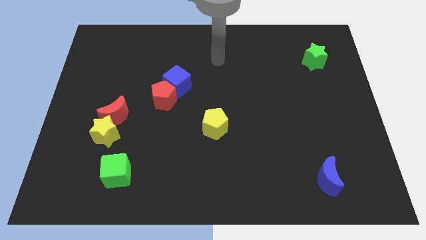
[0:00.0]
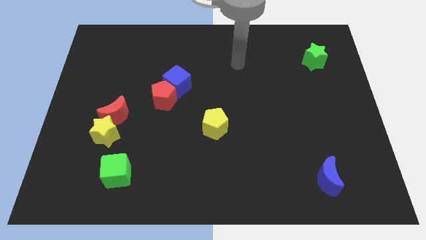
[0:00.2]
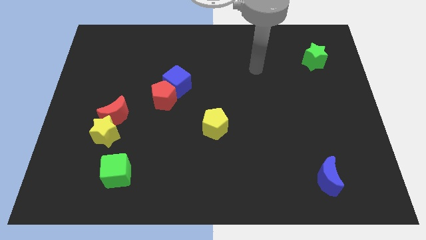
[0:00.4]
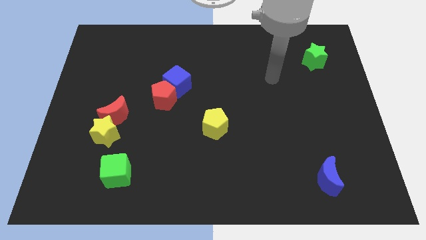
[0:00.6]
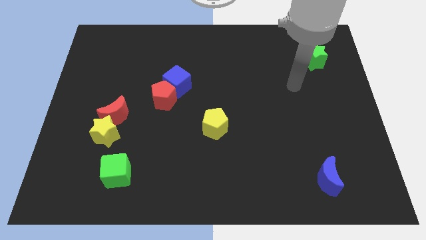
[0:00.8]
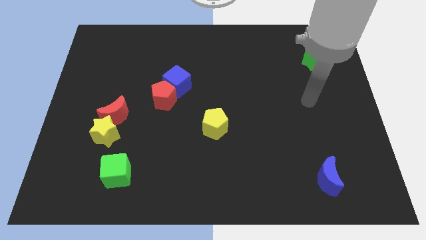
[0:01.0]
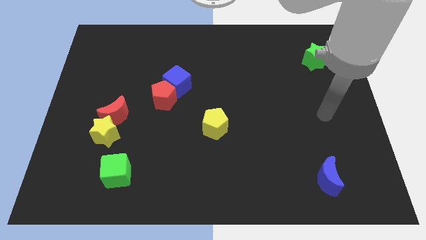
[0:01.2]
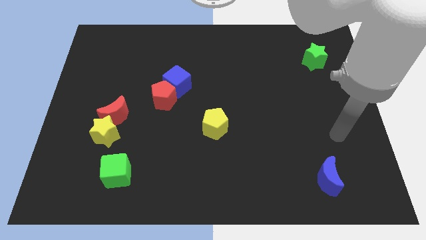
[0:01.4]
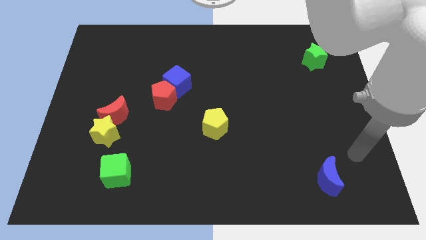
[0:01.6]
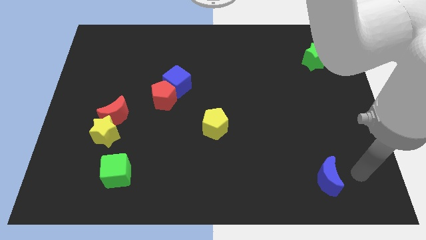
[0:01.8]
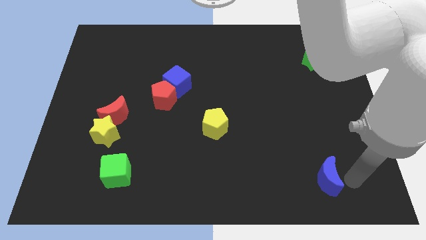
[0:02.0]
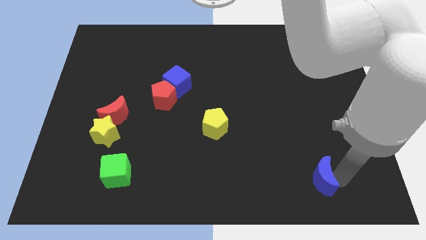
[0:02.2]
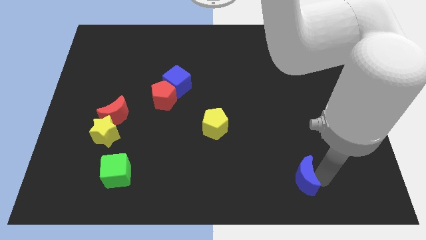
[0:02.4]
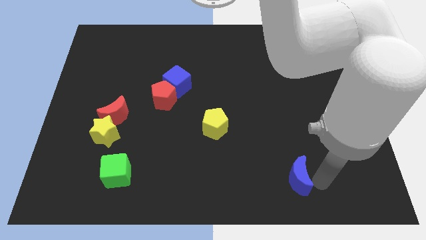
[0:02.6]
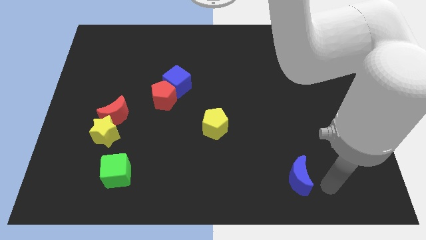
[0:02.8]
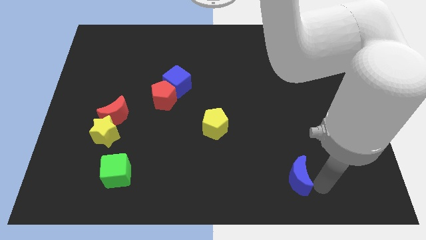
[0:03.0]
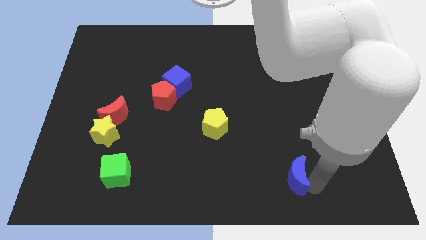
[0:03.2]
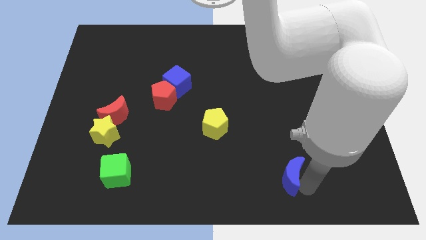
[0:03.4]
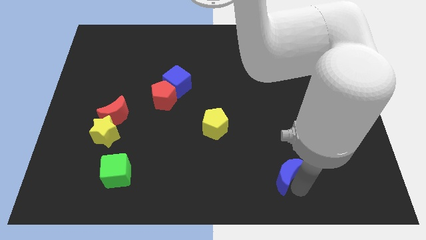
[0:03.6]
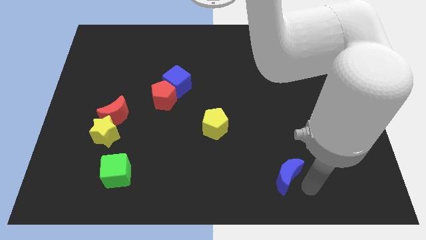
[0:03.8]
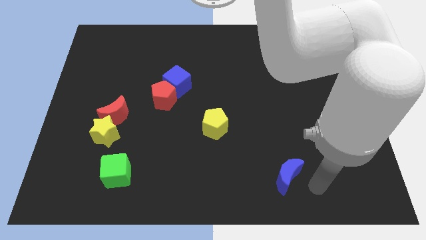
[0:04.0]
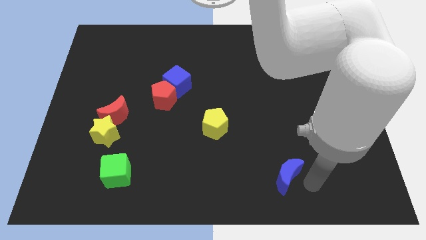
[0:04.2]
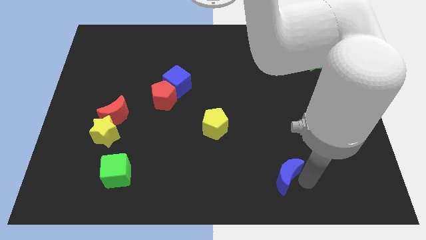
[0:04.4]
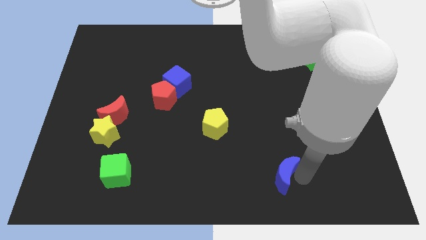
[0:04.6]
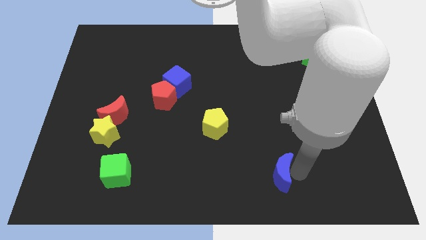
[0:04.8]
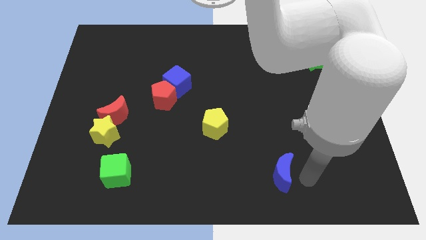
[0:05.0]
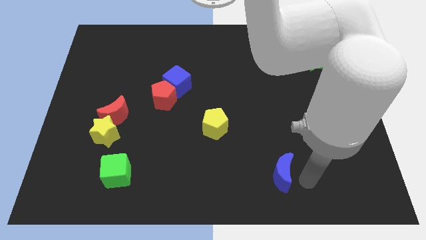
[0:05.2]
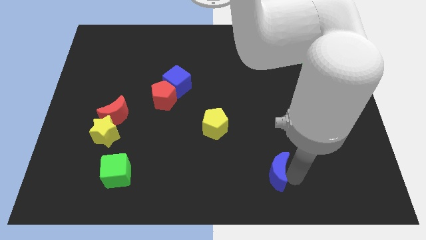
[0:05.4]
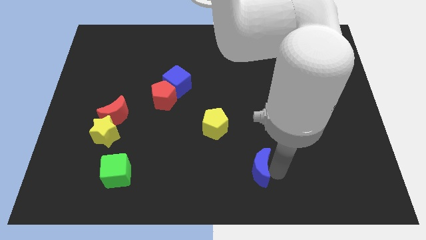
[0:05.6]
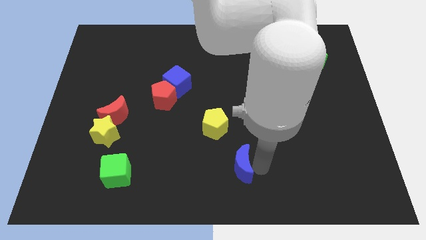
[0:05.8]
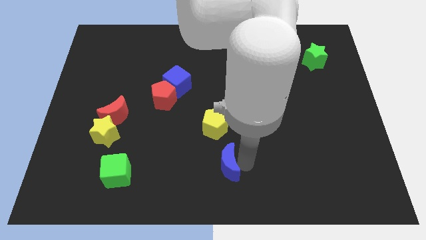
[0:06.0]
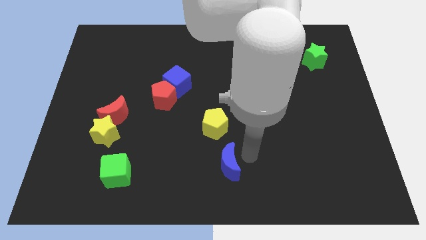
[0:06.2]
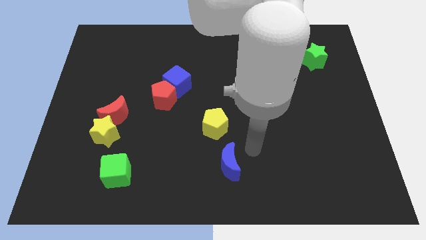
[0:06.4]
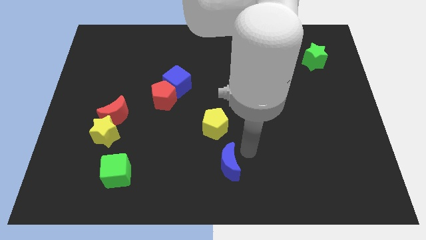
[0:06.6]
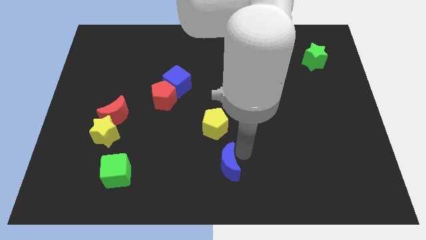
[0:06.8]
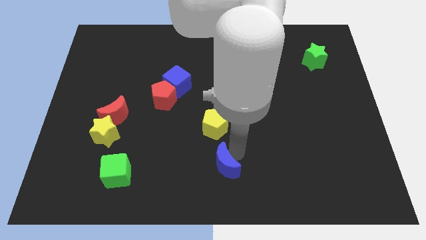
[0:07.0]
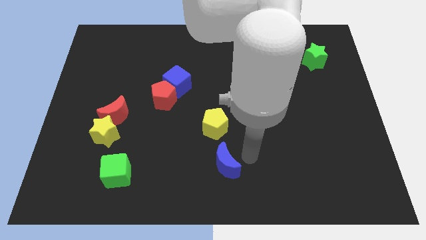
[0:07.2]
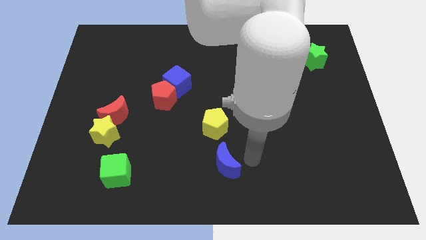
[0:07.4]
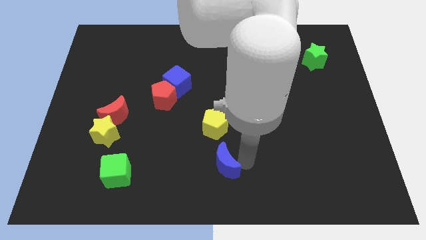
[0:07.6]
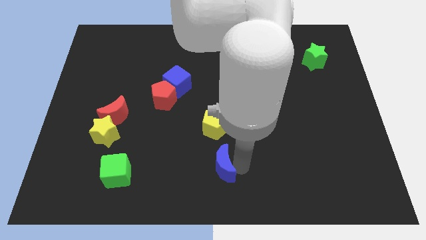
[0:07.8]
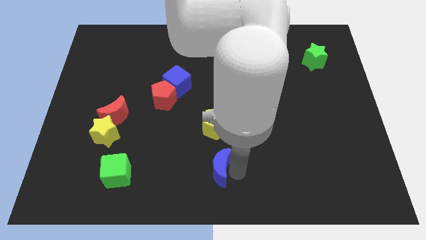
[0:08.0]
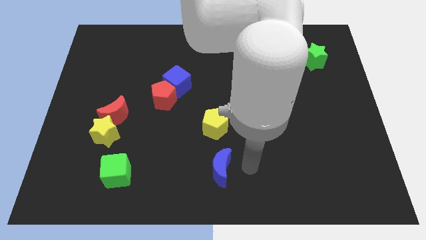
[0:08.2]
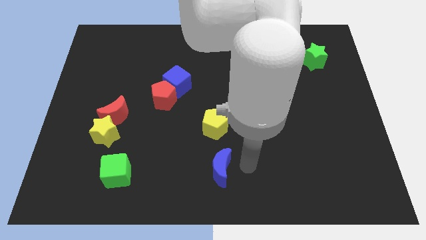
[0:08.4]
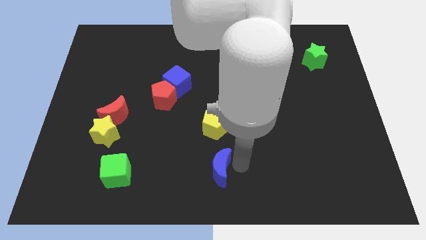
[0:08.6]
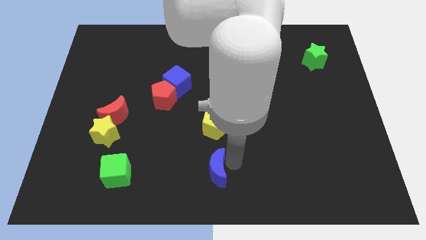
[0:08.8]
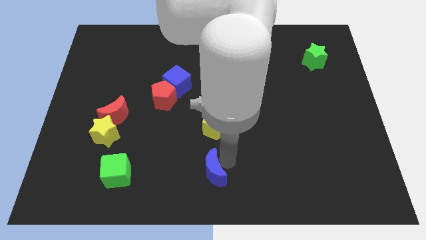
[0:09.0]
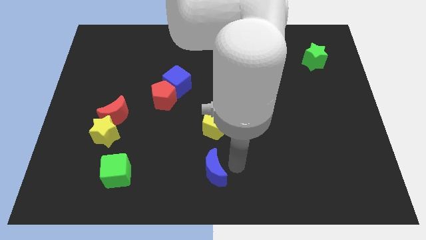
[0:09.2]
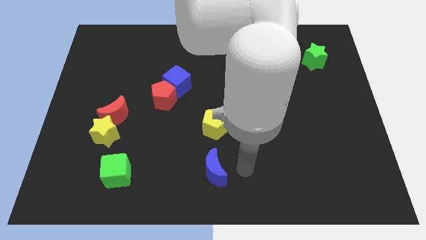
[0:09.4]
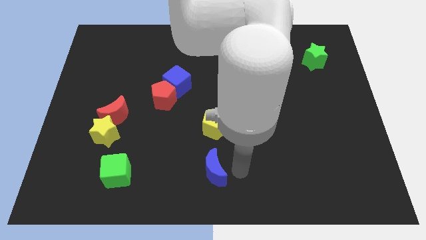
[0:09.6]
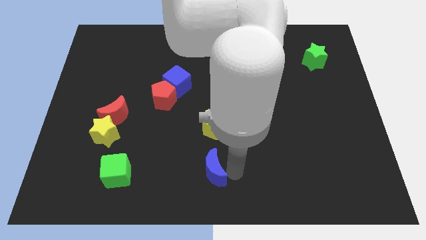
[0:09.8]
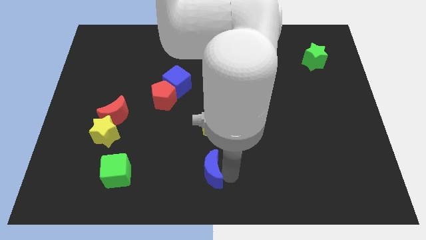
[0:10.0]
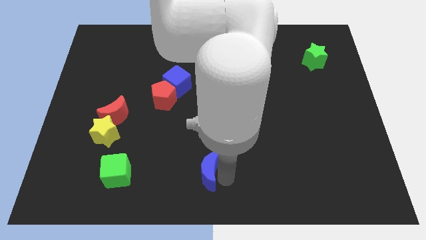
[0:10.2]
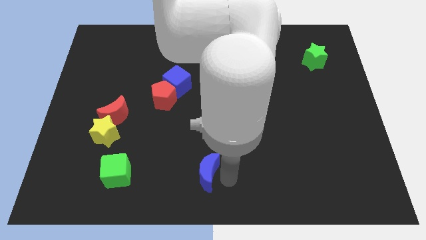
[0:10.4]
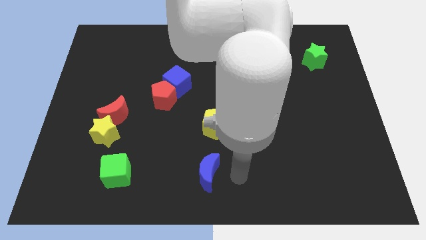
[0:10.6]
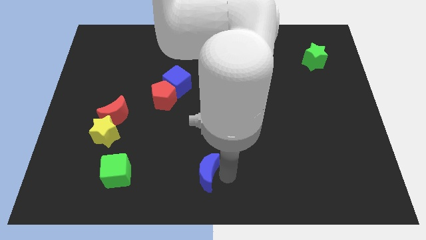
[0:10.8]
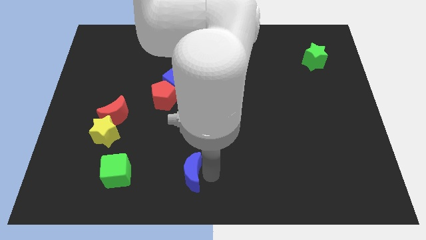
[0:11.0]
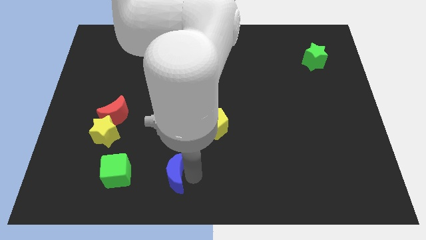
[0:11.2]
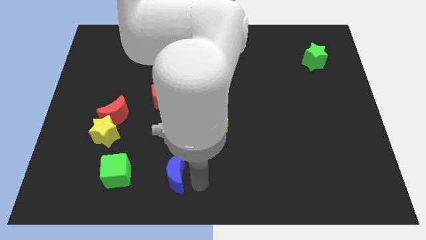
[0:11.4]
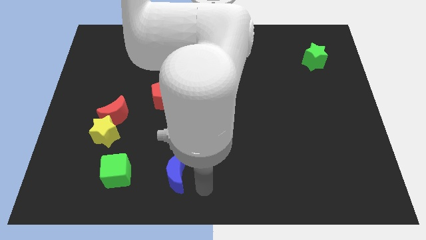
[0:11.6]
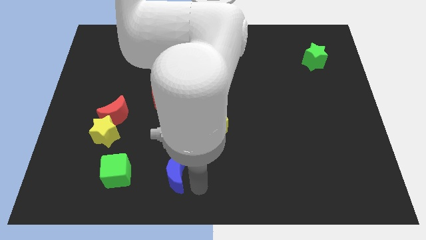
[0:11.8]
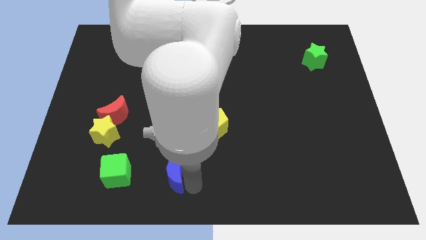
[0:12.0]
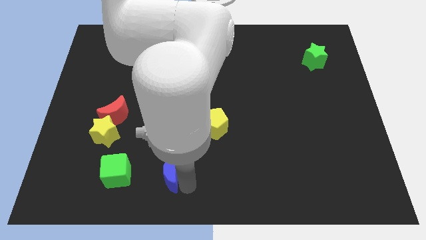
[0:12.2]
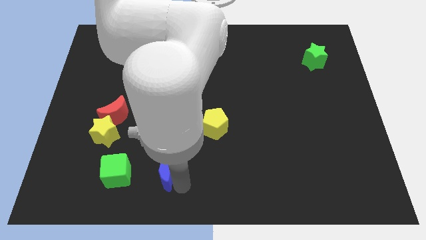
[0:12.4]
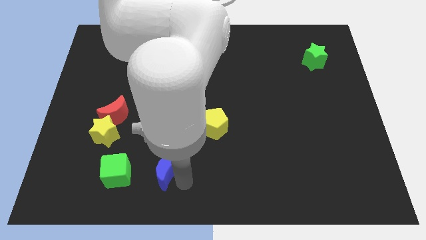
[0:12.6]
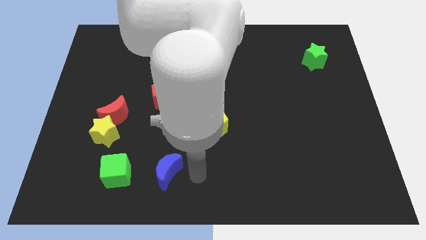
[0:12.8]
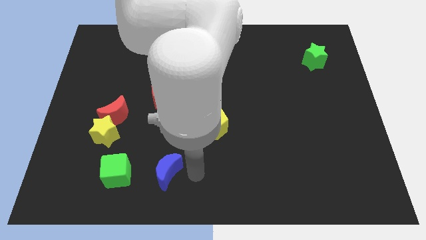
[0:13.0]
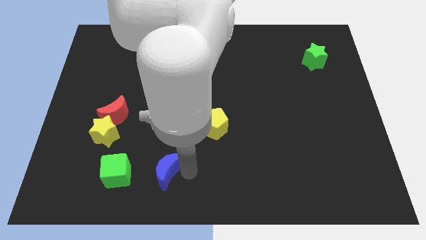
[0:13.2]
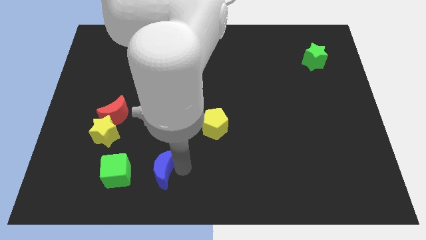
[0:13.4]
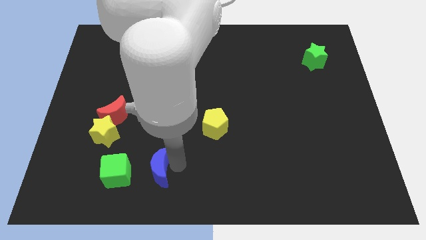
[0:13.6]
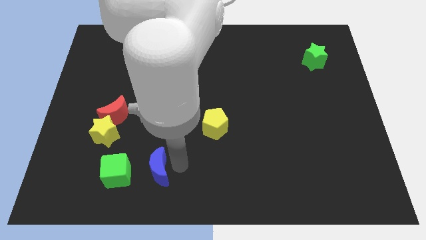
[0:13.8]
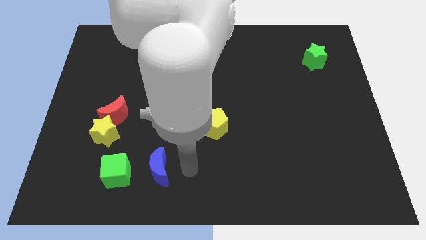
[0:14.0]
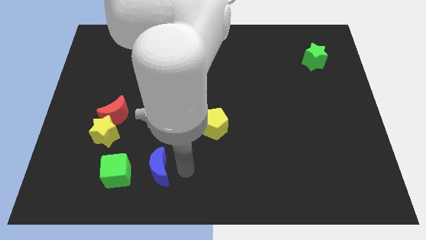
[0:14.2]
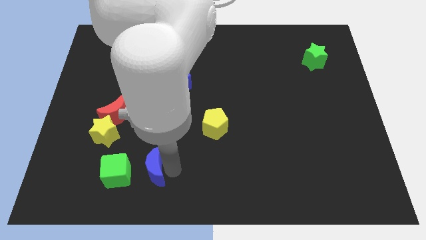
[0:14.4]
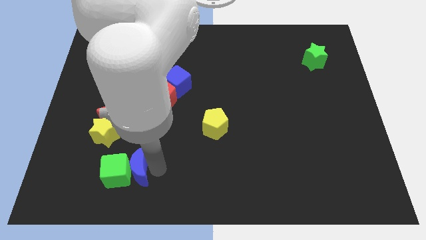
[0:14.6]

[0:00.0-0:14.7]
move the blue moon to the green cube
